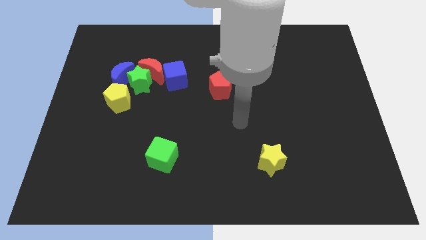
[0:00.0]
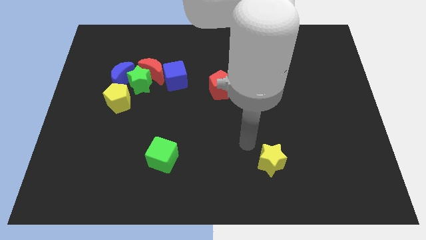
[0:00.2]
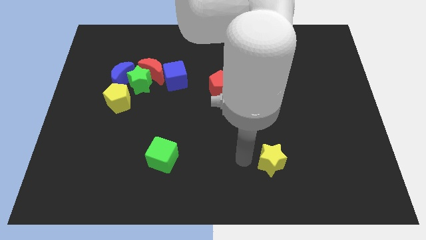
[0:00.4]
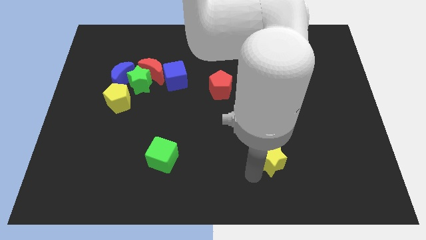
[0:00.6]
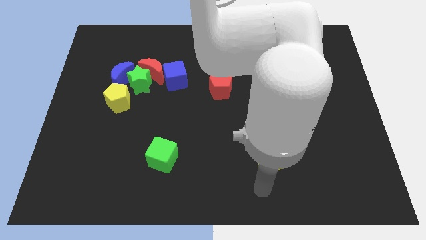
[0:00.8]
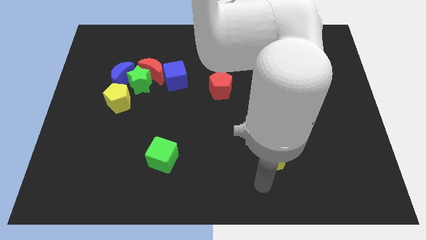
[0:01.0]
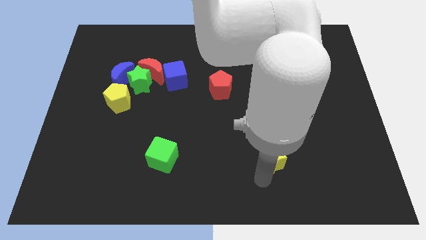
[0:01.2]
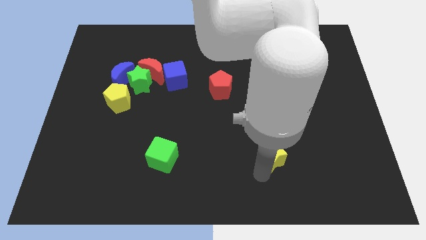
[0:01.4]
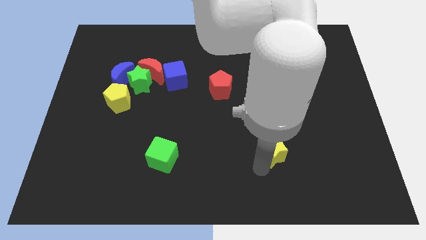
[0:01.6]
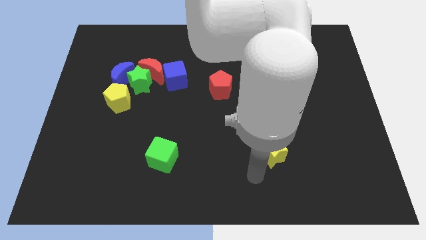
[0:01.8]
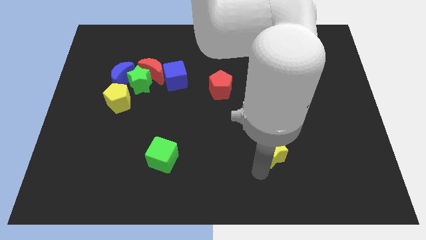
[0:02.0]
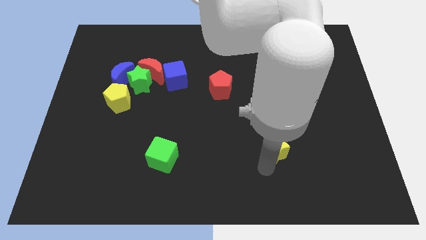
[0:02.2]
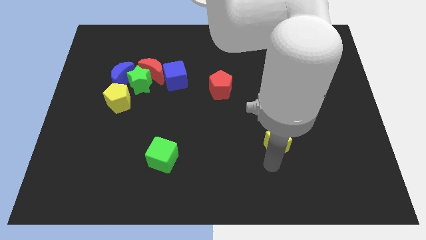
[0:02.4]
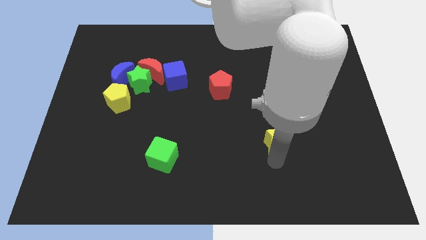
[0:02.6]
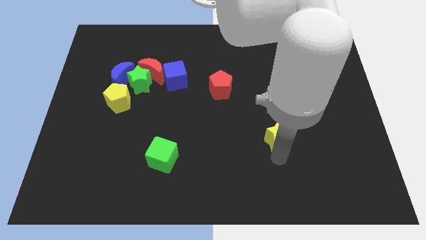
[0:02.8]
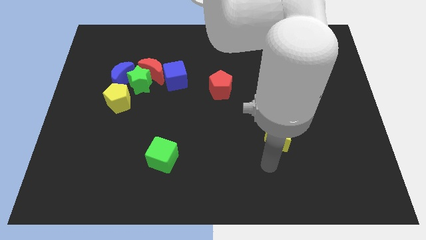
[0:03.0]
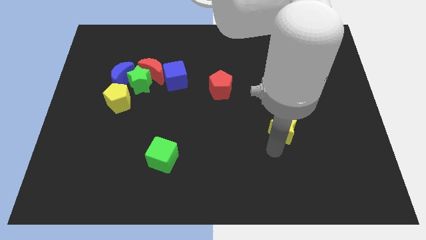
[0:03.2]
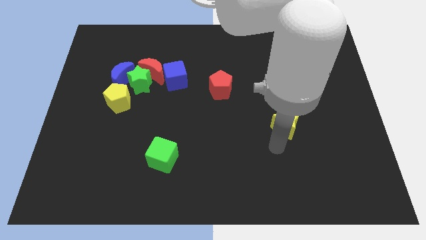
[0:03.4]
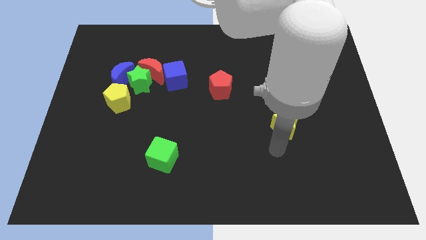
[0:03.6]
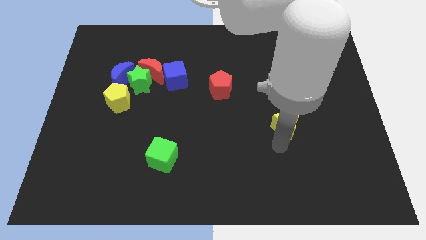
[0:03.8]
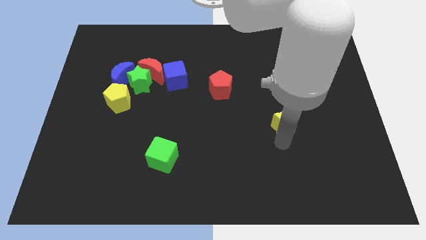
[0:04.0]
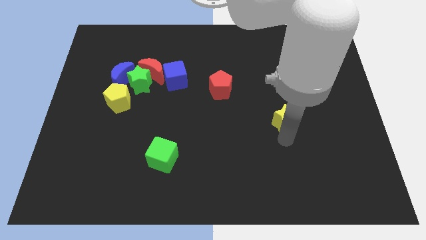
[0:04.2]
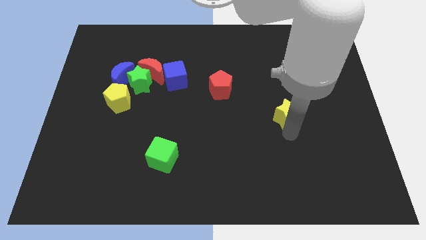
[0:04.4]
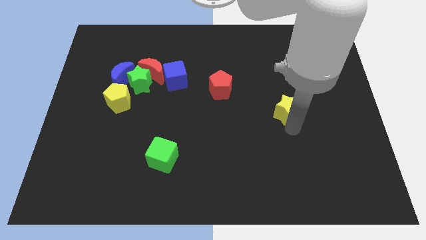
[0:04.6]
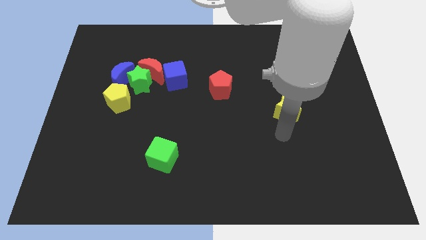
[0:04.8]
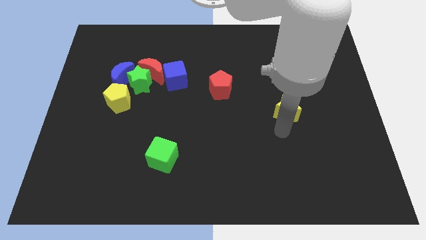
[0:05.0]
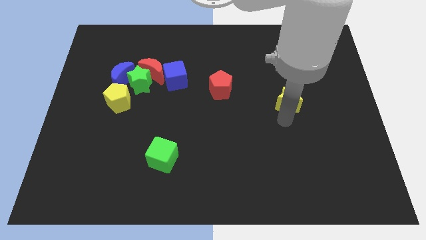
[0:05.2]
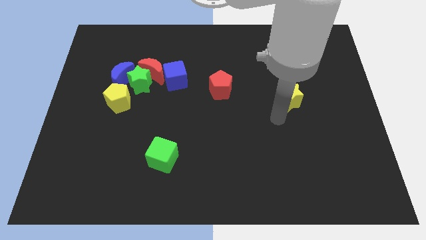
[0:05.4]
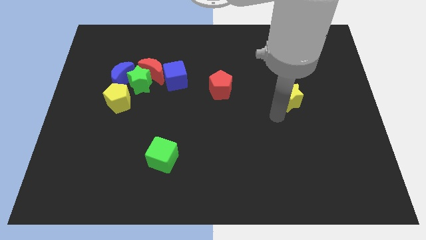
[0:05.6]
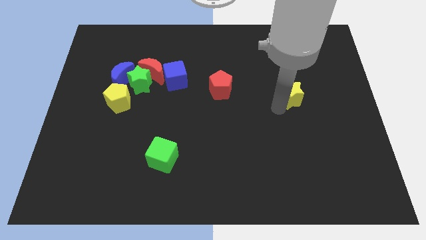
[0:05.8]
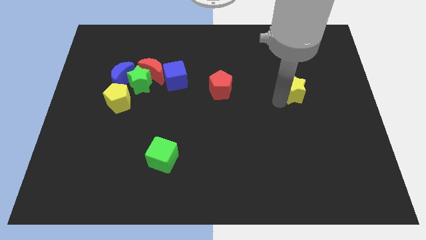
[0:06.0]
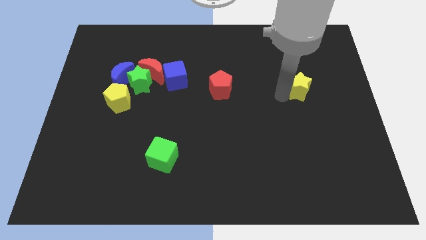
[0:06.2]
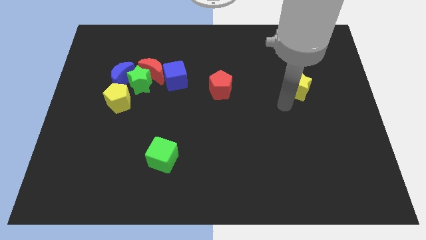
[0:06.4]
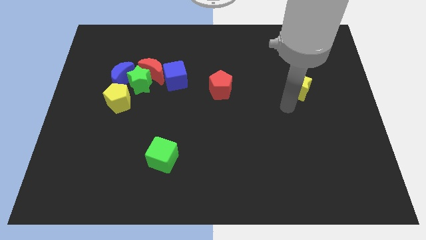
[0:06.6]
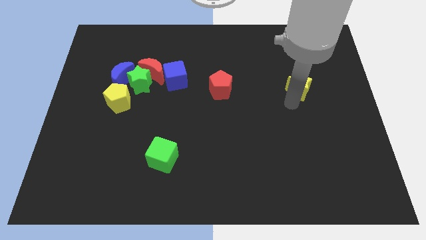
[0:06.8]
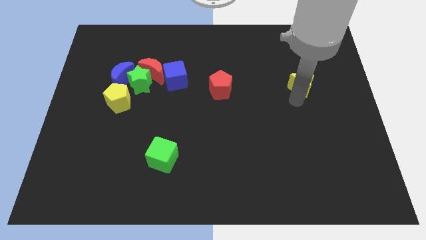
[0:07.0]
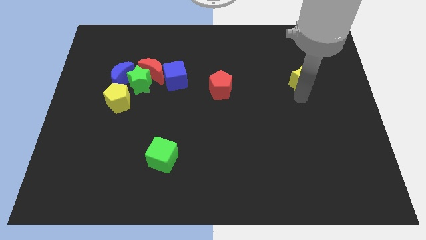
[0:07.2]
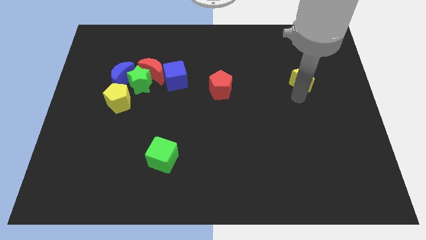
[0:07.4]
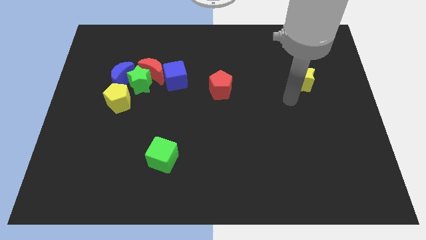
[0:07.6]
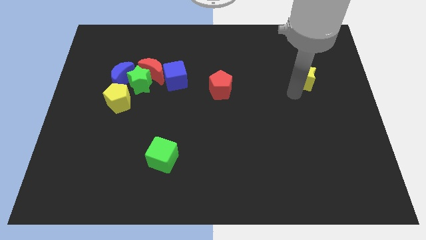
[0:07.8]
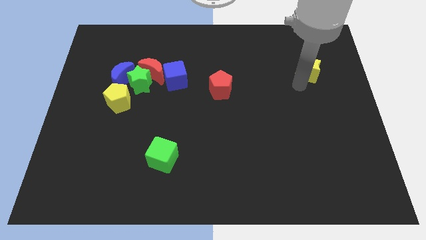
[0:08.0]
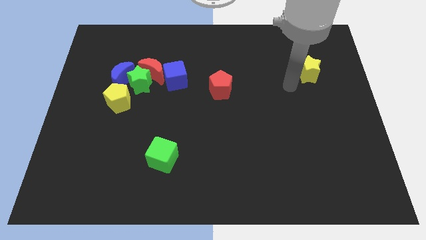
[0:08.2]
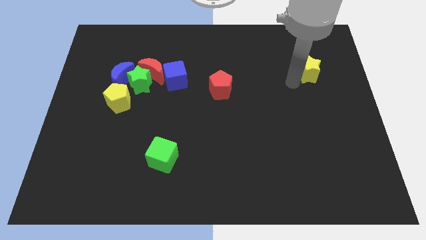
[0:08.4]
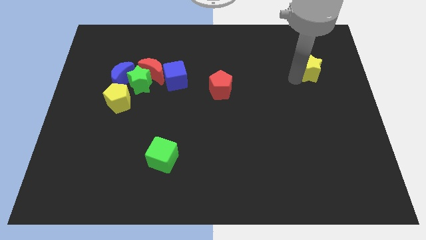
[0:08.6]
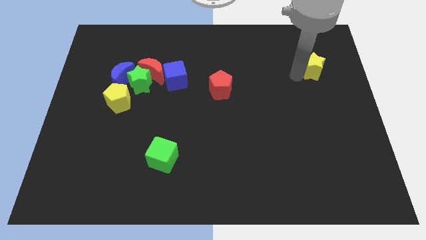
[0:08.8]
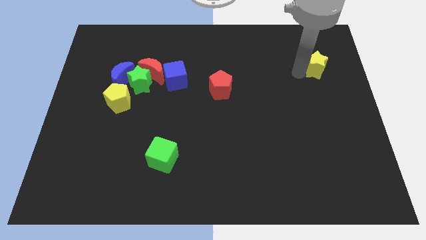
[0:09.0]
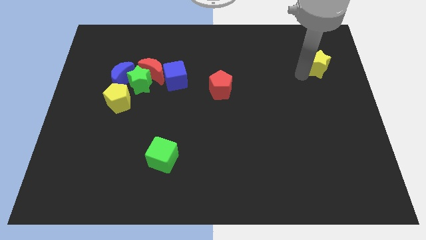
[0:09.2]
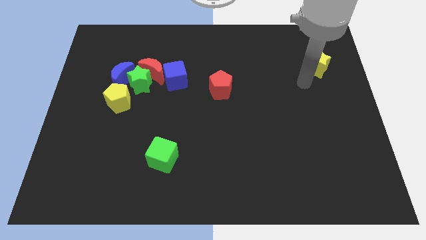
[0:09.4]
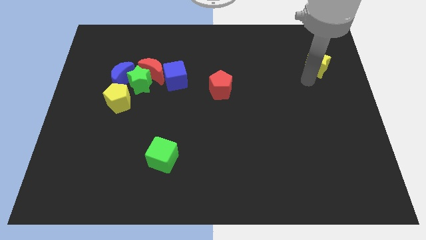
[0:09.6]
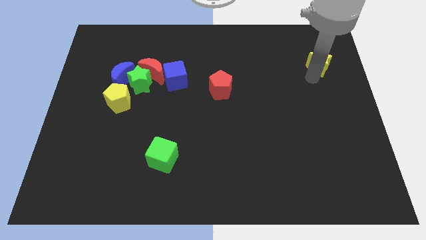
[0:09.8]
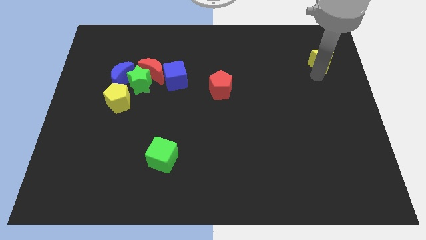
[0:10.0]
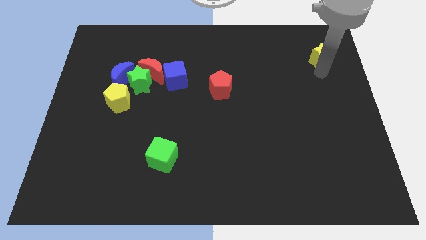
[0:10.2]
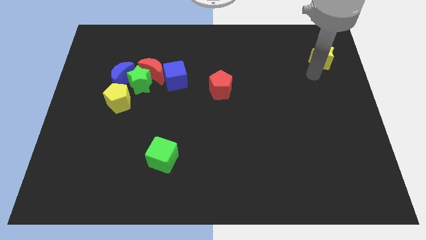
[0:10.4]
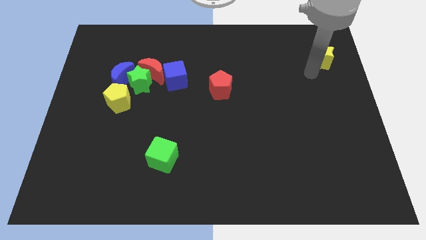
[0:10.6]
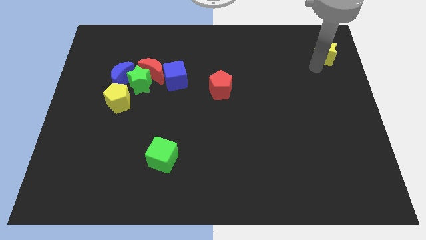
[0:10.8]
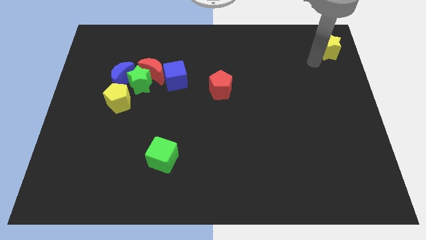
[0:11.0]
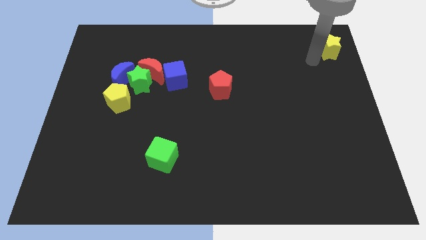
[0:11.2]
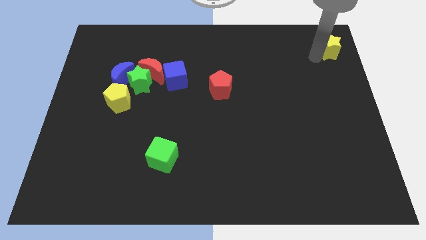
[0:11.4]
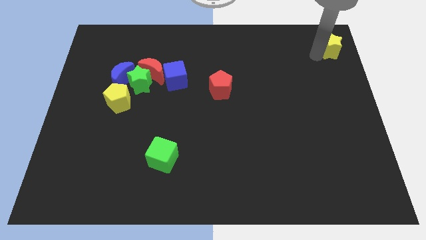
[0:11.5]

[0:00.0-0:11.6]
push the yellow star to the top right
